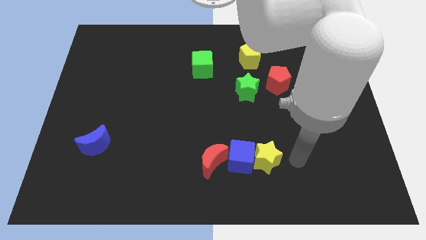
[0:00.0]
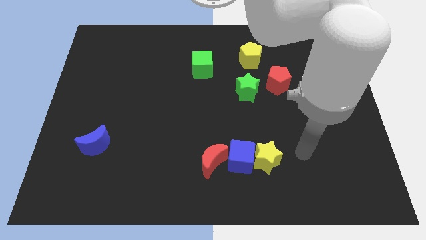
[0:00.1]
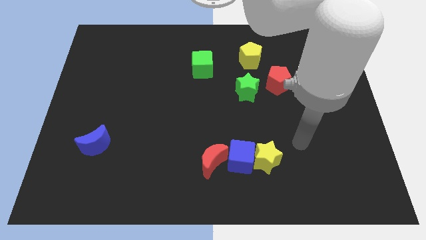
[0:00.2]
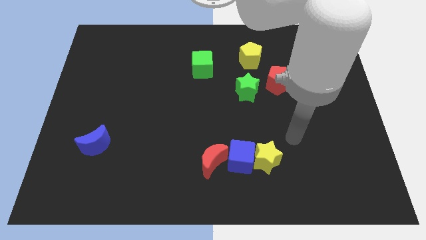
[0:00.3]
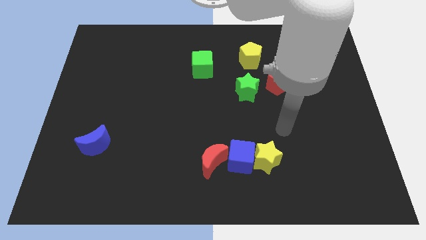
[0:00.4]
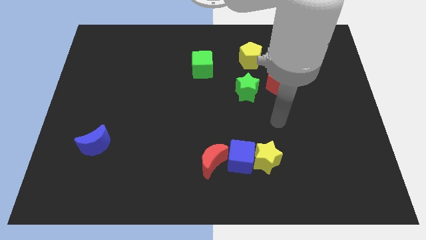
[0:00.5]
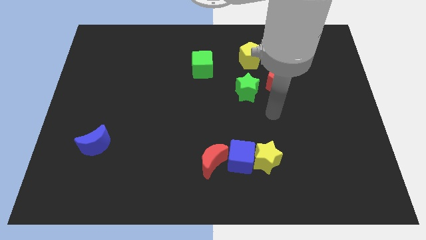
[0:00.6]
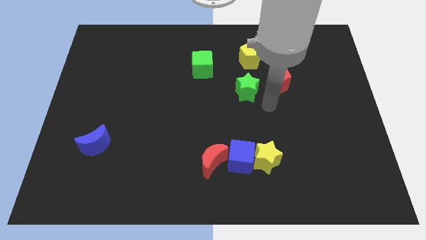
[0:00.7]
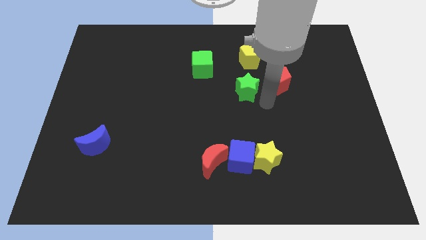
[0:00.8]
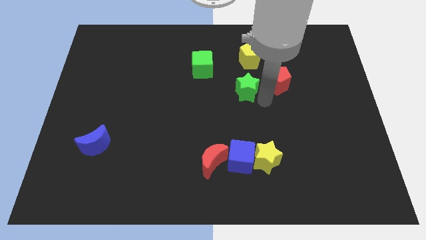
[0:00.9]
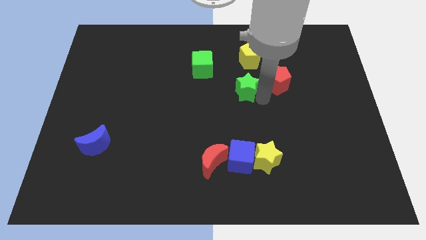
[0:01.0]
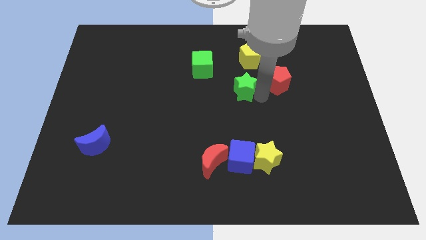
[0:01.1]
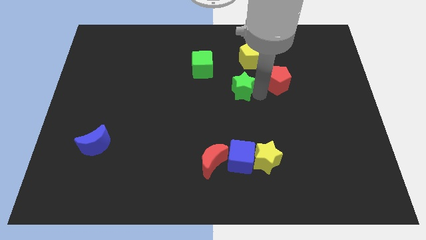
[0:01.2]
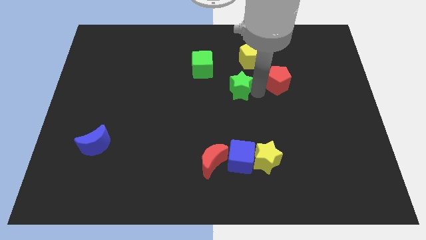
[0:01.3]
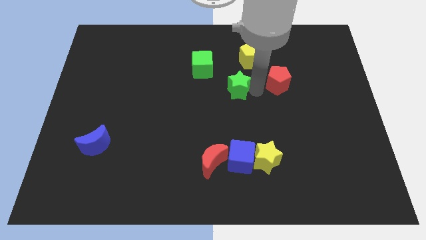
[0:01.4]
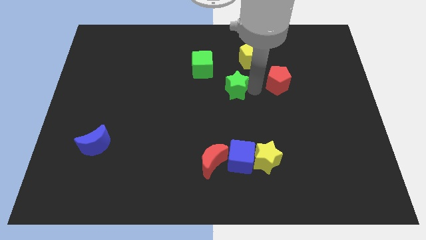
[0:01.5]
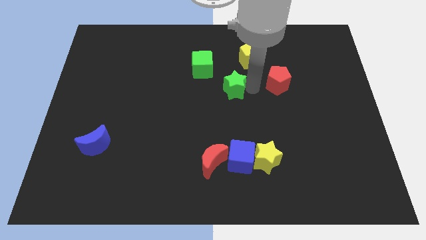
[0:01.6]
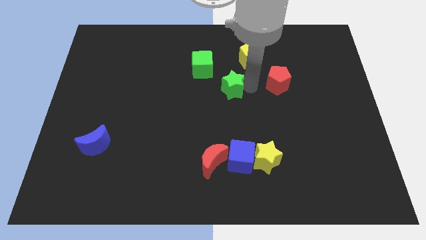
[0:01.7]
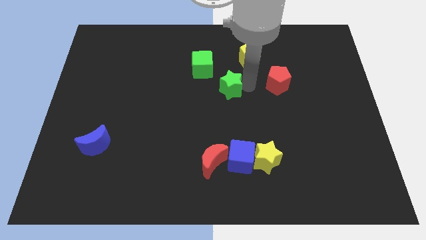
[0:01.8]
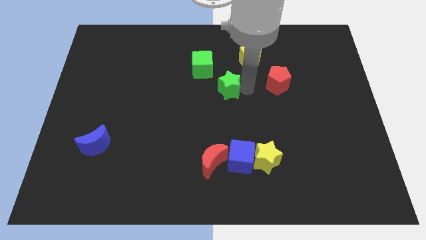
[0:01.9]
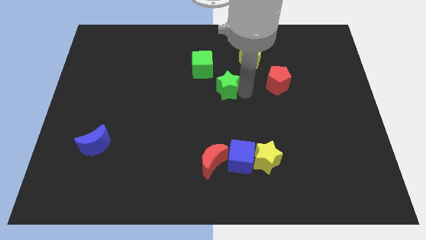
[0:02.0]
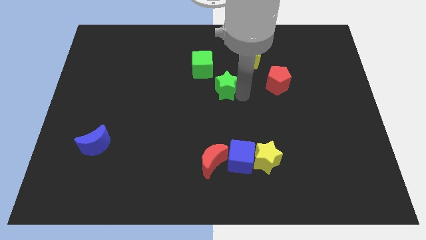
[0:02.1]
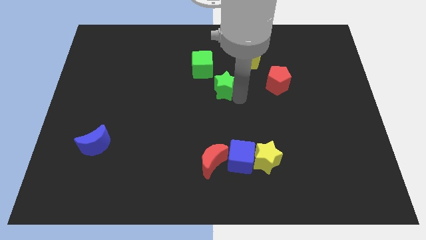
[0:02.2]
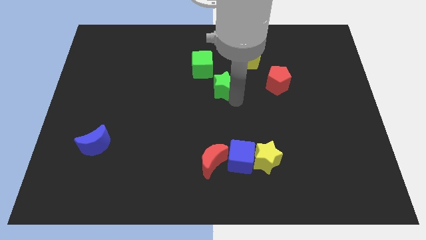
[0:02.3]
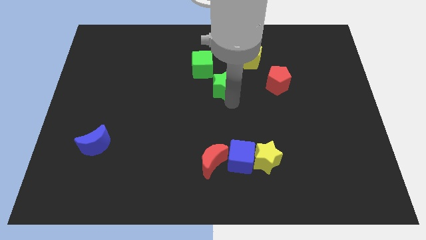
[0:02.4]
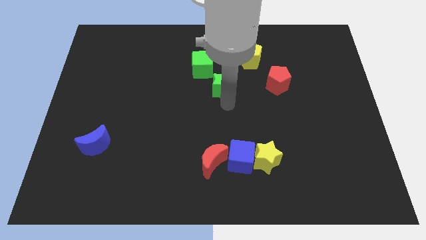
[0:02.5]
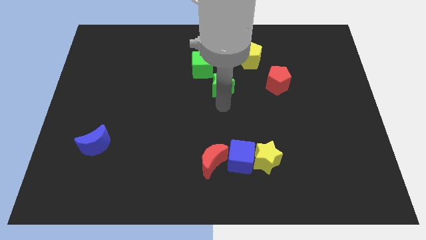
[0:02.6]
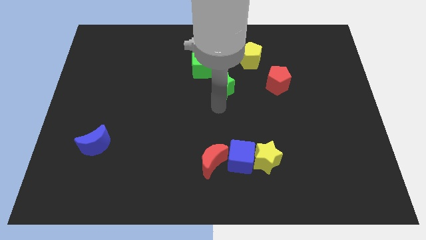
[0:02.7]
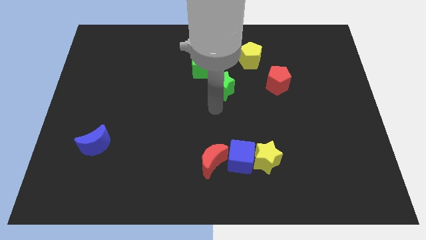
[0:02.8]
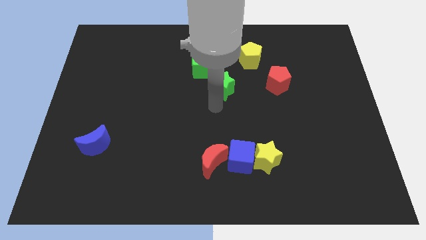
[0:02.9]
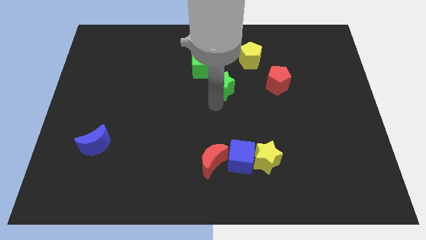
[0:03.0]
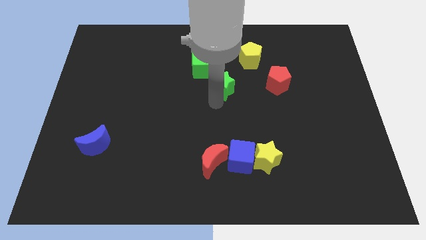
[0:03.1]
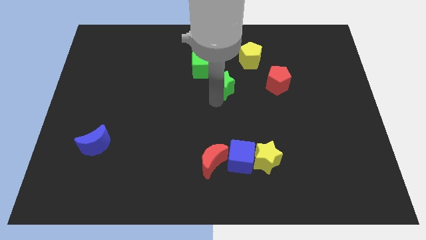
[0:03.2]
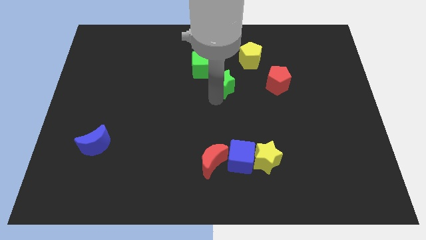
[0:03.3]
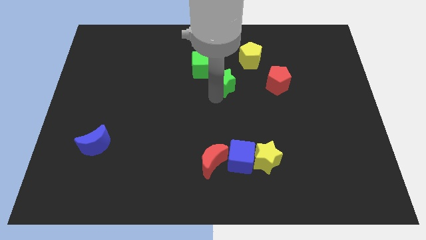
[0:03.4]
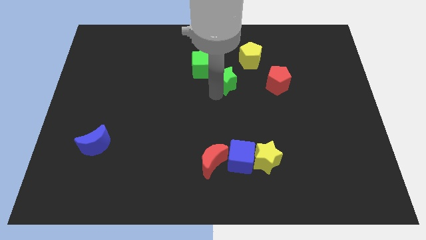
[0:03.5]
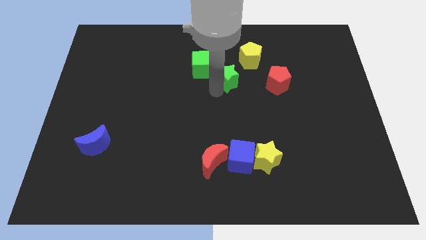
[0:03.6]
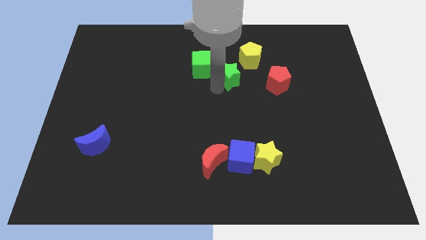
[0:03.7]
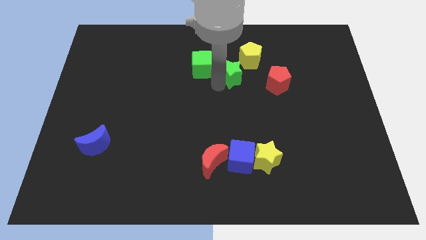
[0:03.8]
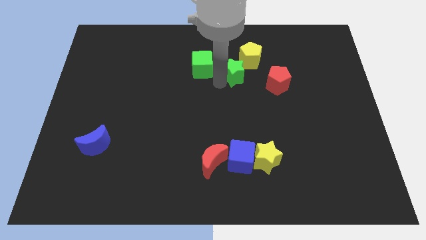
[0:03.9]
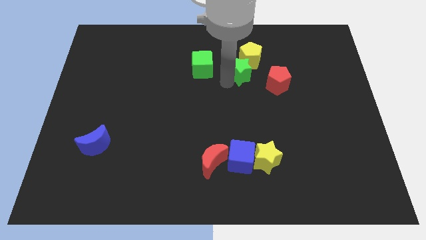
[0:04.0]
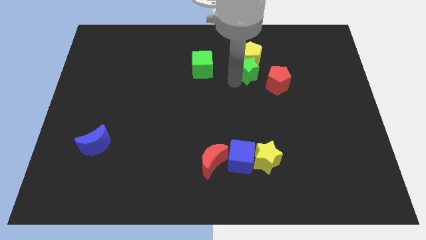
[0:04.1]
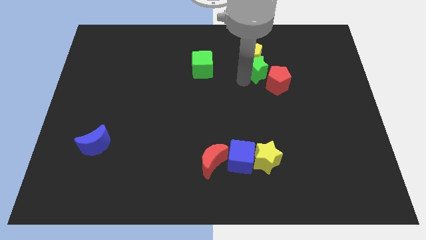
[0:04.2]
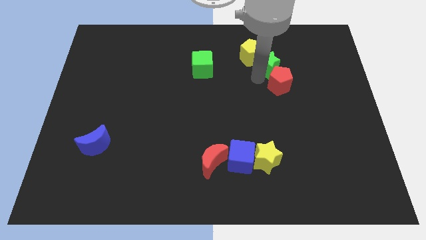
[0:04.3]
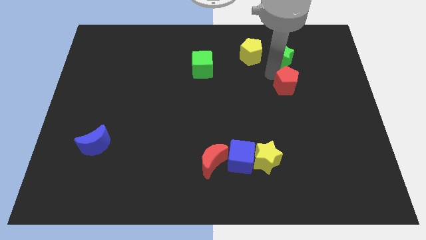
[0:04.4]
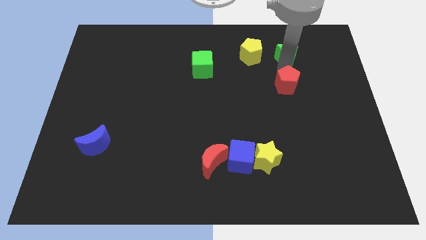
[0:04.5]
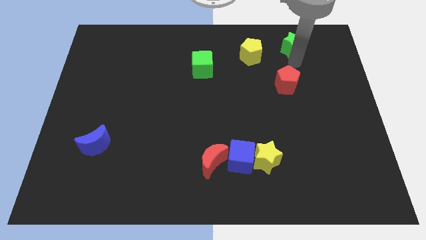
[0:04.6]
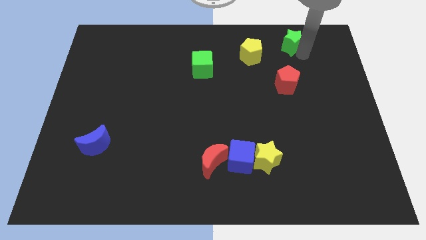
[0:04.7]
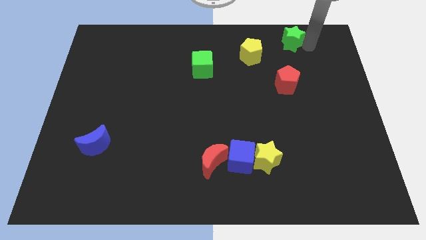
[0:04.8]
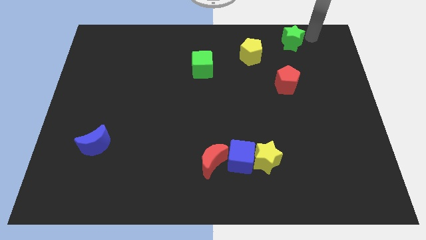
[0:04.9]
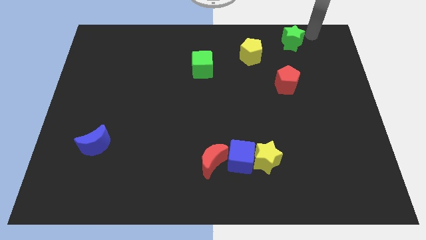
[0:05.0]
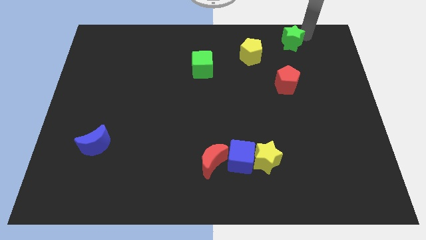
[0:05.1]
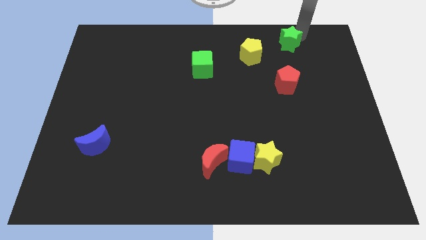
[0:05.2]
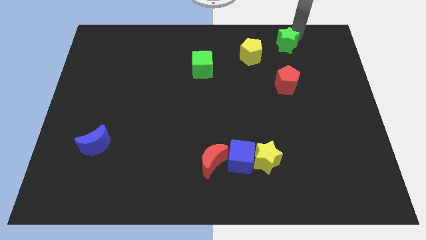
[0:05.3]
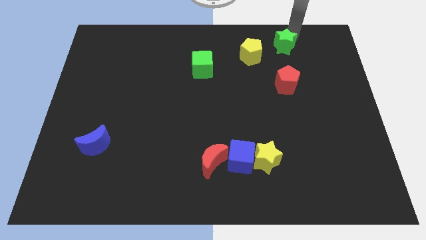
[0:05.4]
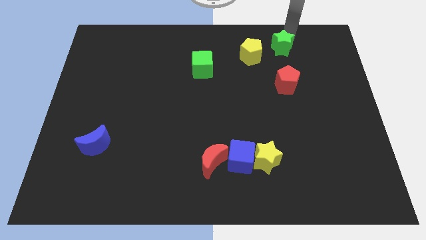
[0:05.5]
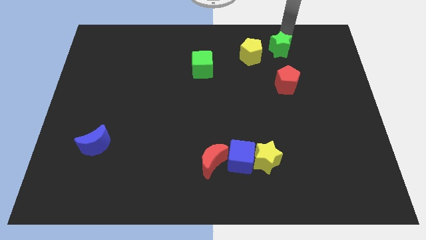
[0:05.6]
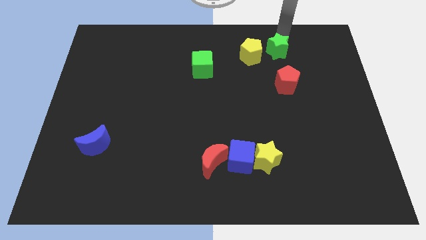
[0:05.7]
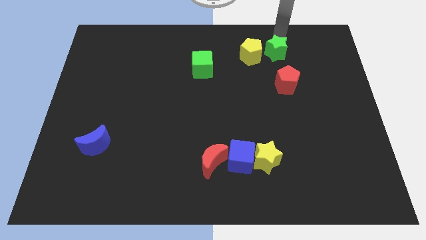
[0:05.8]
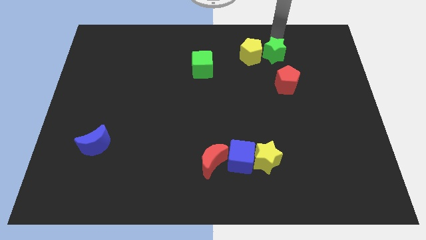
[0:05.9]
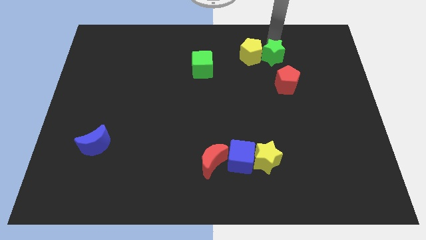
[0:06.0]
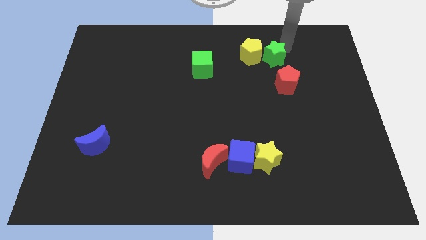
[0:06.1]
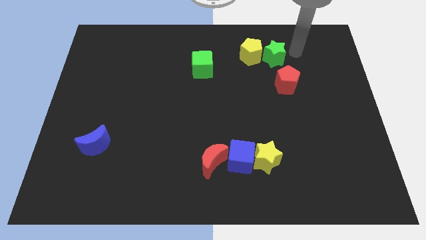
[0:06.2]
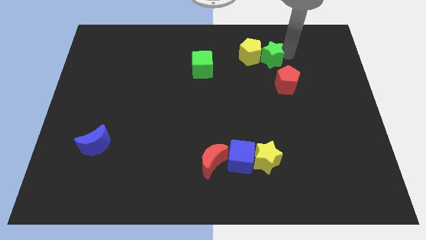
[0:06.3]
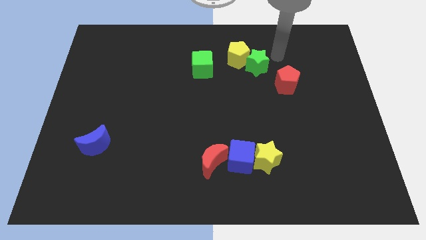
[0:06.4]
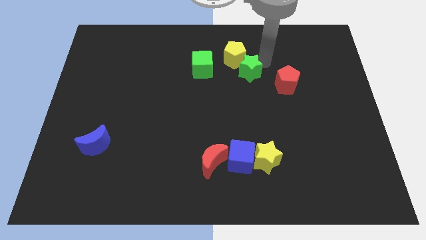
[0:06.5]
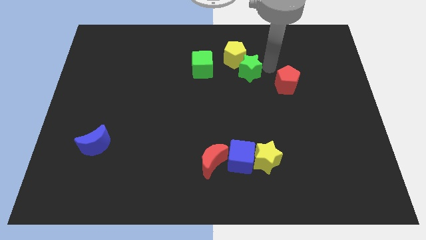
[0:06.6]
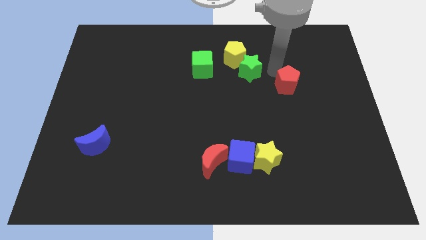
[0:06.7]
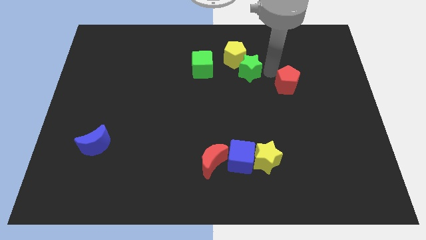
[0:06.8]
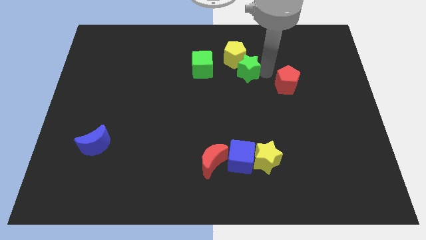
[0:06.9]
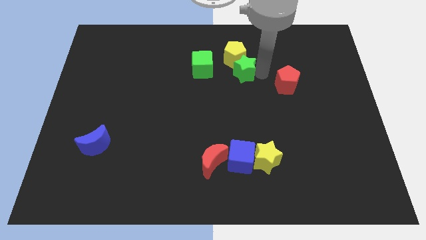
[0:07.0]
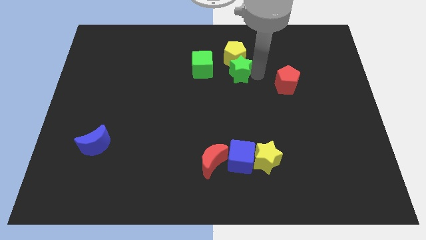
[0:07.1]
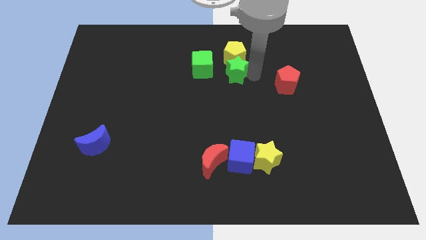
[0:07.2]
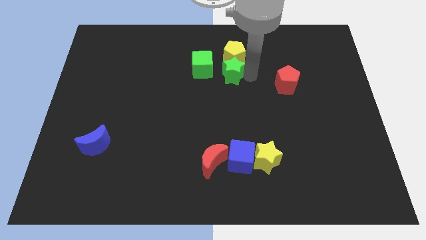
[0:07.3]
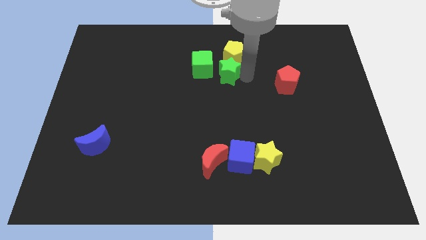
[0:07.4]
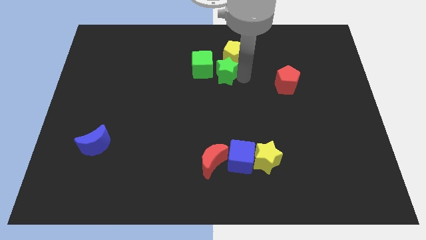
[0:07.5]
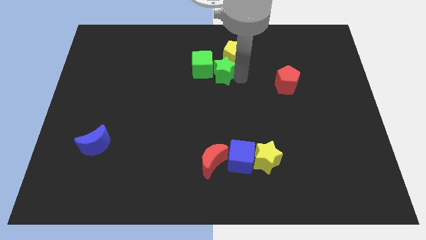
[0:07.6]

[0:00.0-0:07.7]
slide the green star towards the green cube
